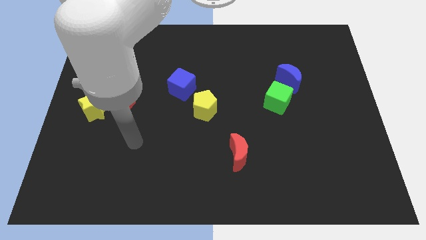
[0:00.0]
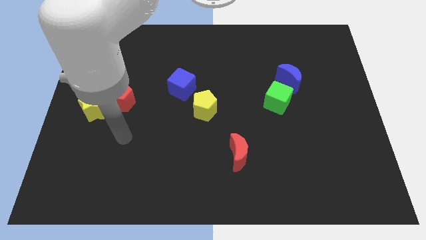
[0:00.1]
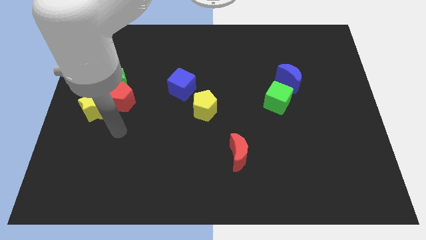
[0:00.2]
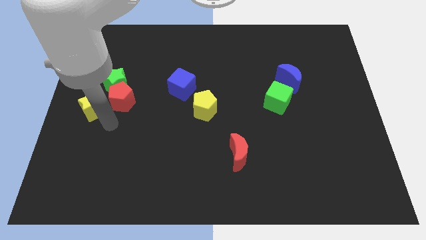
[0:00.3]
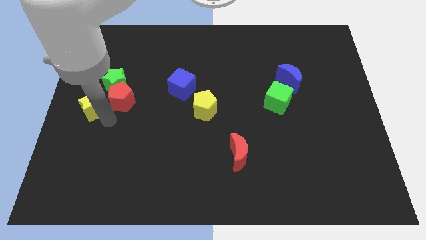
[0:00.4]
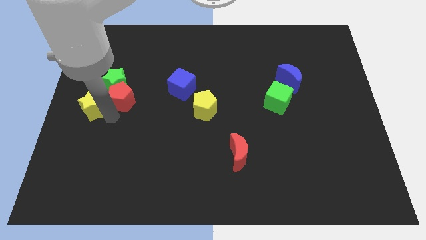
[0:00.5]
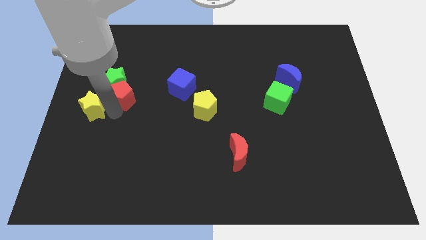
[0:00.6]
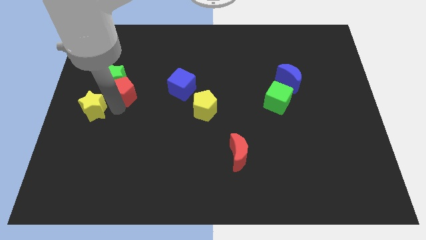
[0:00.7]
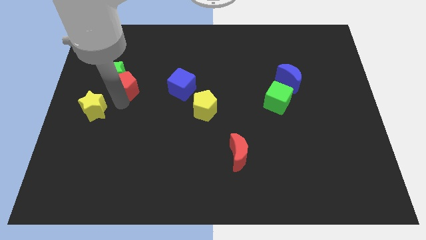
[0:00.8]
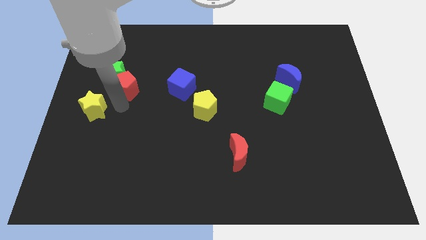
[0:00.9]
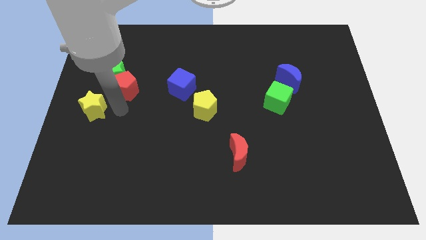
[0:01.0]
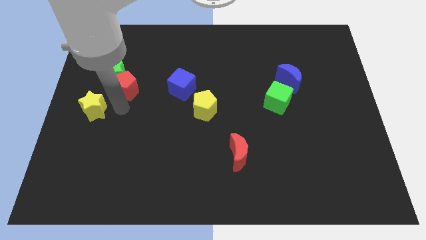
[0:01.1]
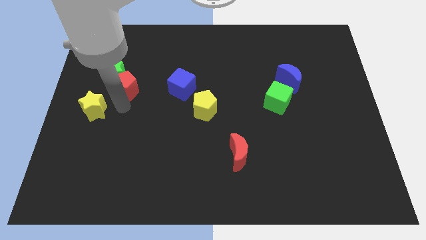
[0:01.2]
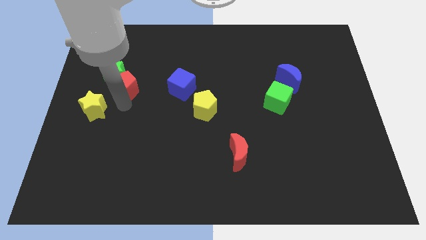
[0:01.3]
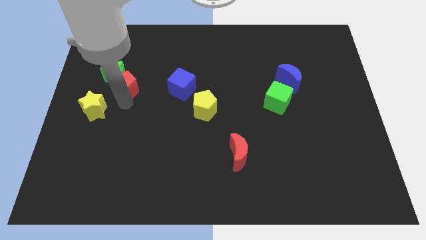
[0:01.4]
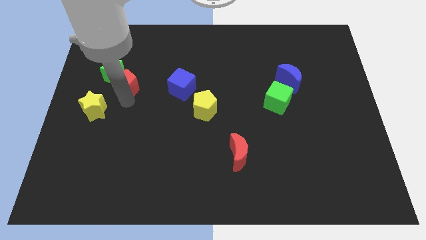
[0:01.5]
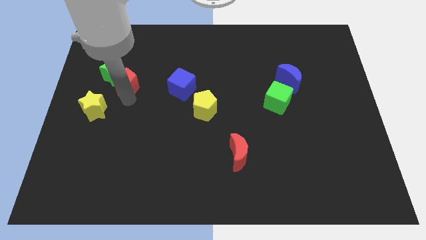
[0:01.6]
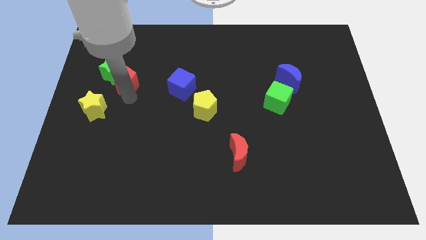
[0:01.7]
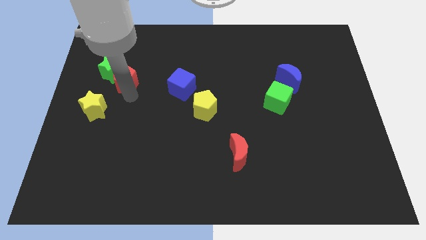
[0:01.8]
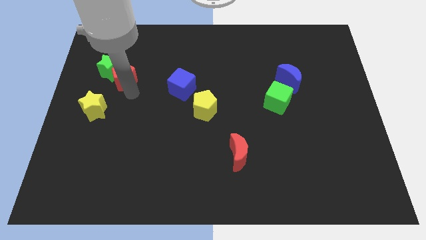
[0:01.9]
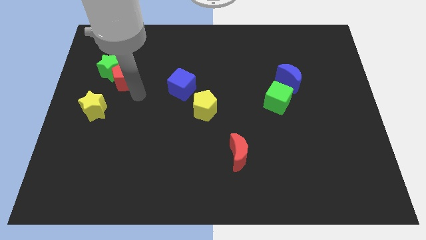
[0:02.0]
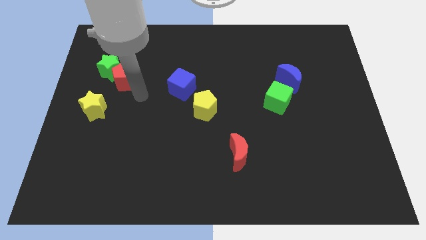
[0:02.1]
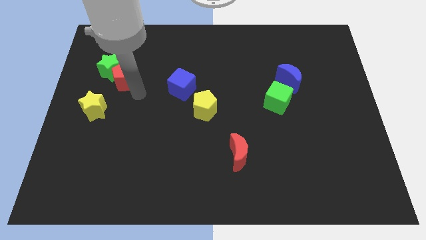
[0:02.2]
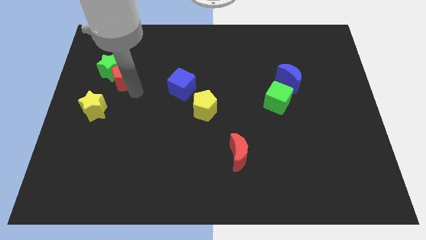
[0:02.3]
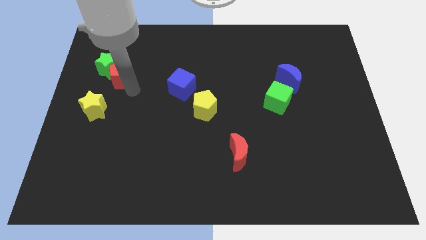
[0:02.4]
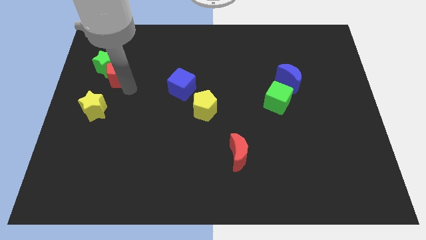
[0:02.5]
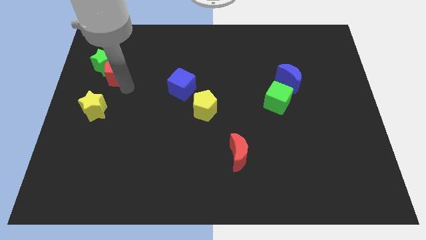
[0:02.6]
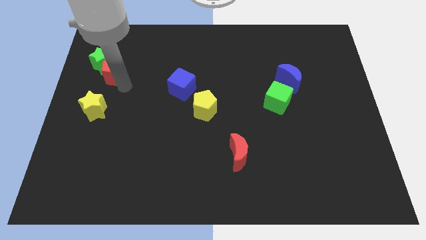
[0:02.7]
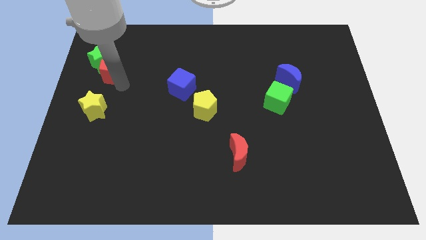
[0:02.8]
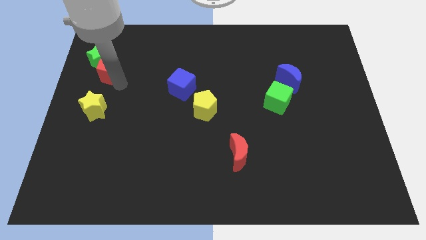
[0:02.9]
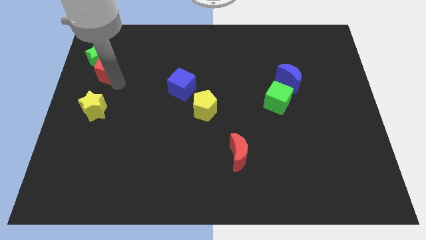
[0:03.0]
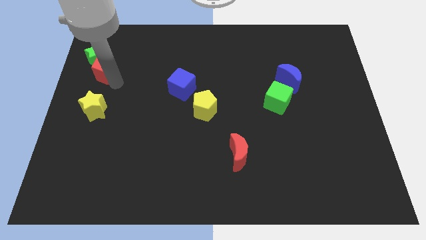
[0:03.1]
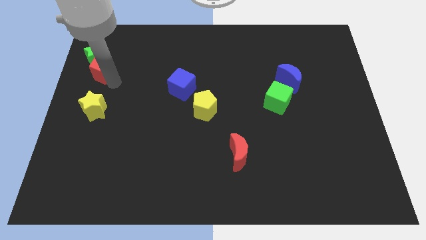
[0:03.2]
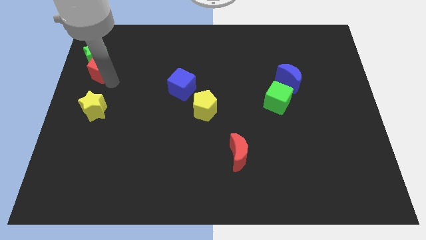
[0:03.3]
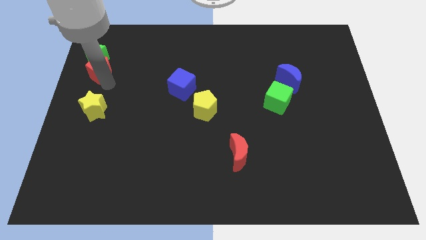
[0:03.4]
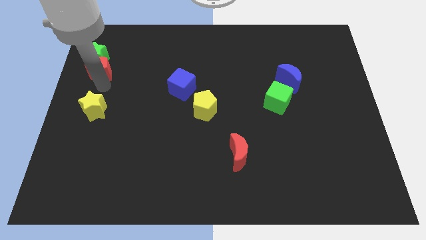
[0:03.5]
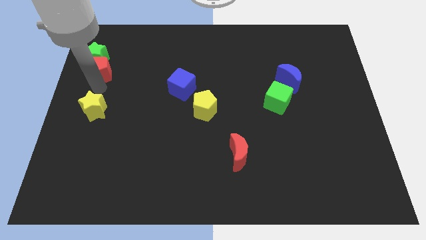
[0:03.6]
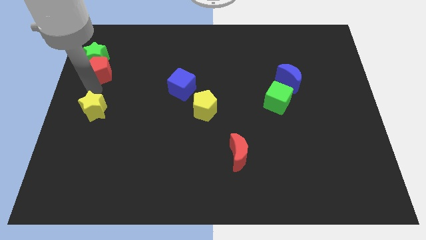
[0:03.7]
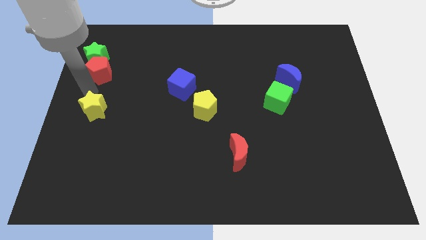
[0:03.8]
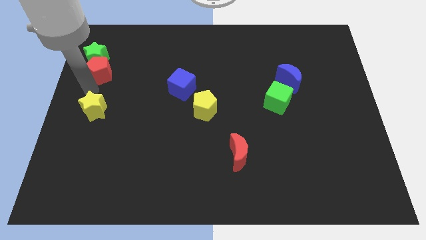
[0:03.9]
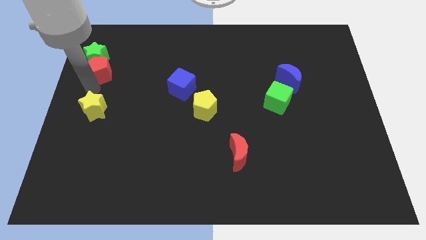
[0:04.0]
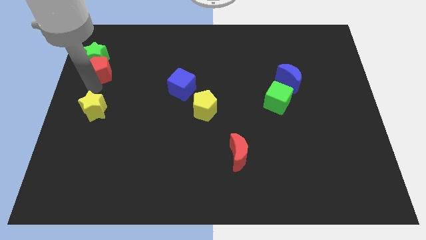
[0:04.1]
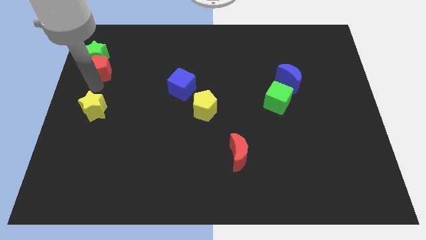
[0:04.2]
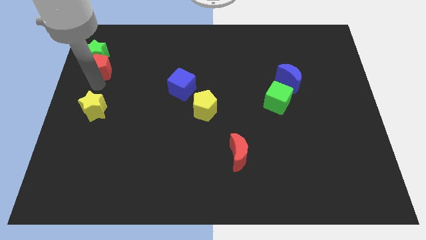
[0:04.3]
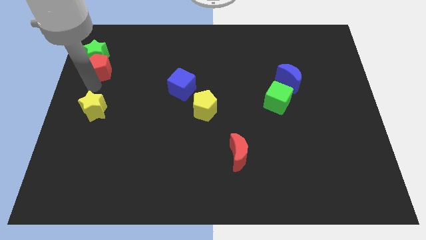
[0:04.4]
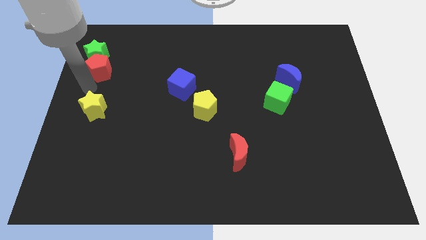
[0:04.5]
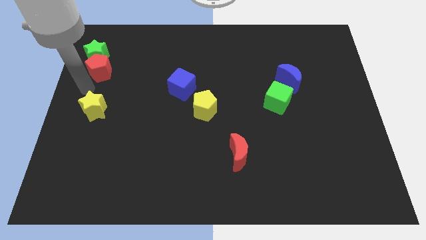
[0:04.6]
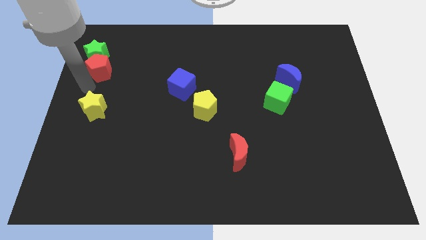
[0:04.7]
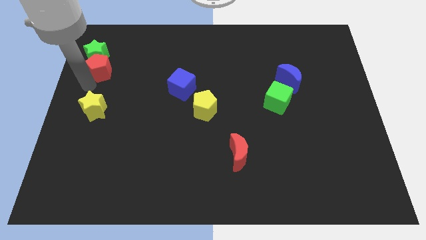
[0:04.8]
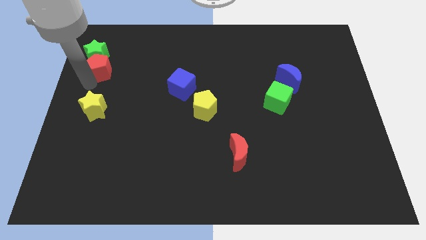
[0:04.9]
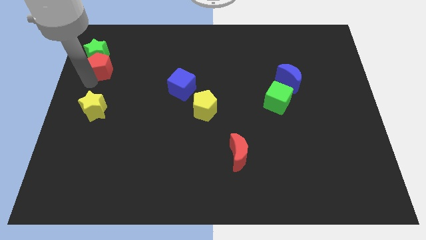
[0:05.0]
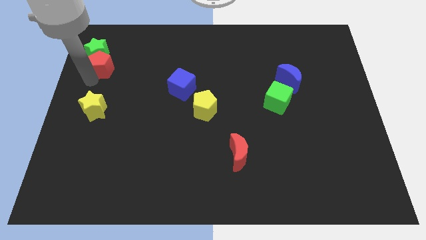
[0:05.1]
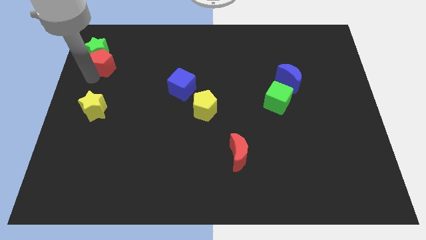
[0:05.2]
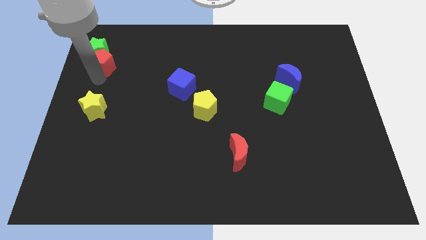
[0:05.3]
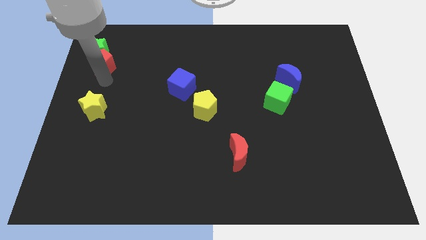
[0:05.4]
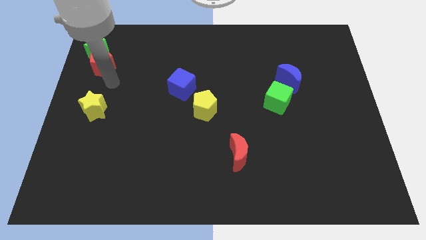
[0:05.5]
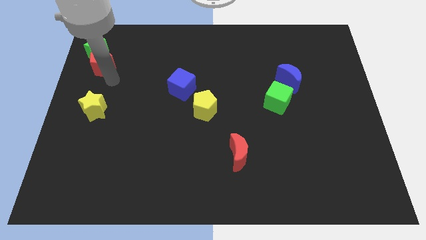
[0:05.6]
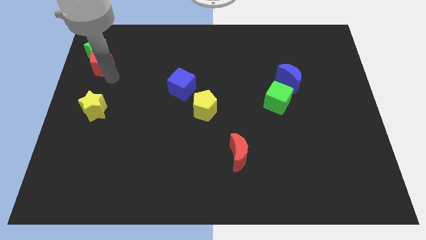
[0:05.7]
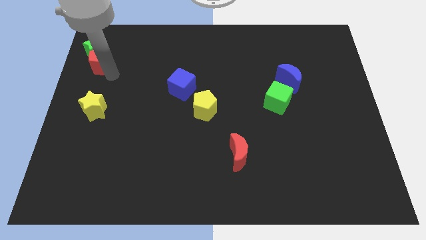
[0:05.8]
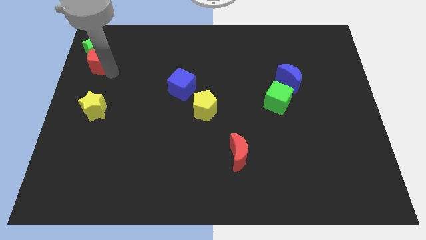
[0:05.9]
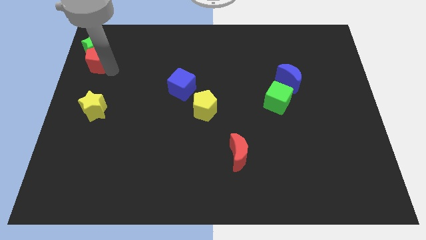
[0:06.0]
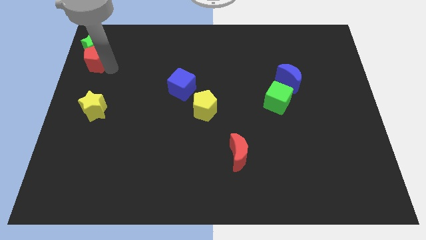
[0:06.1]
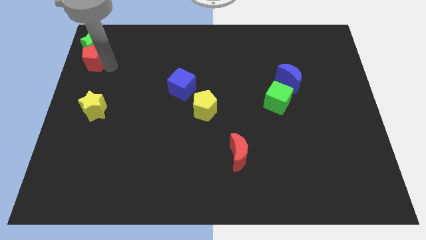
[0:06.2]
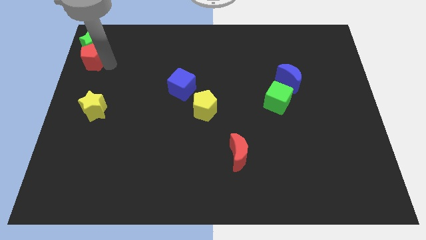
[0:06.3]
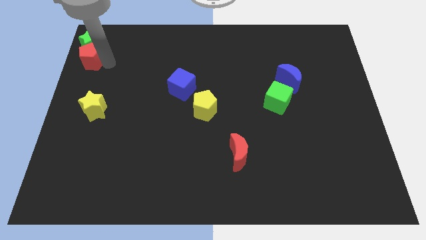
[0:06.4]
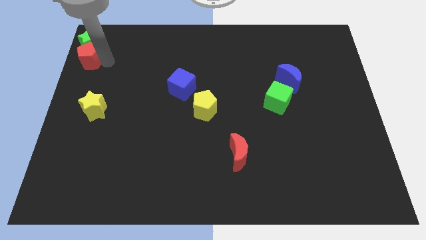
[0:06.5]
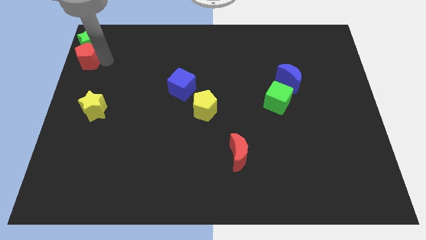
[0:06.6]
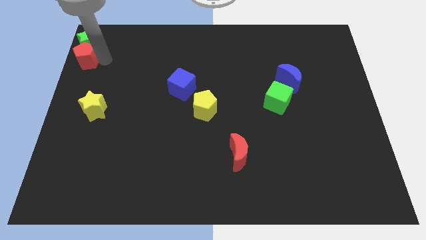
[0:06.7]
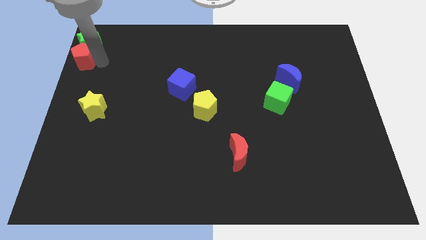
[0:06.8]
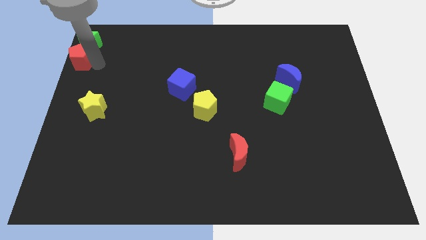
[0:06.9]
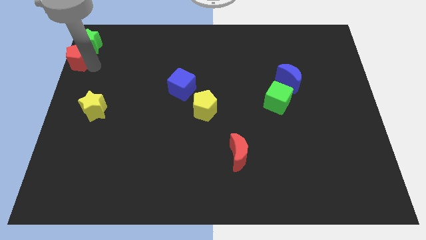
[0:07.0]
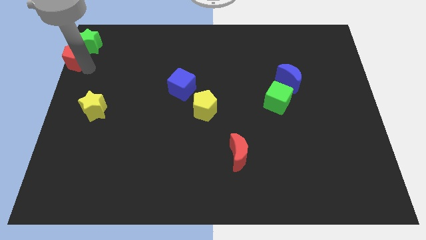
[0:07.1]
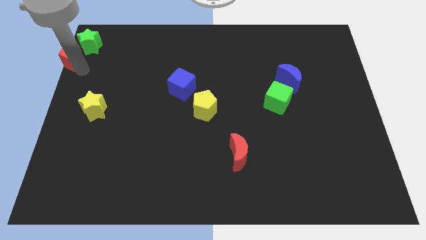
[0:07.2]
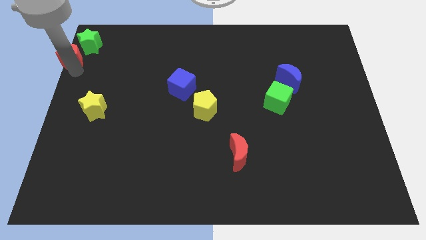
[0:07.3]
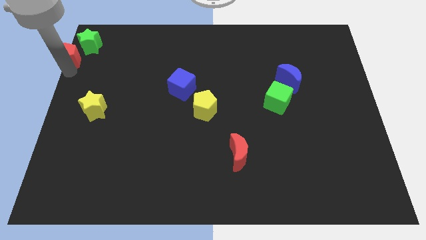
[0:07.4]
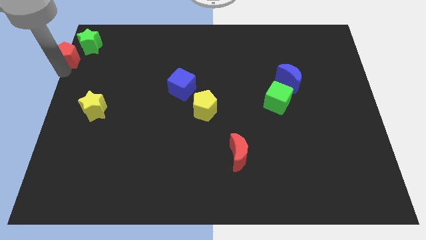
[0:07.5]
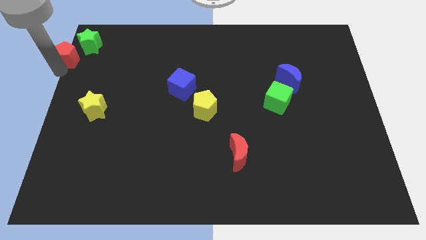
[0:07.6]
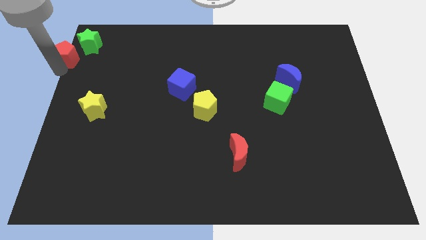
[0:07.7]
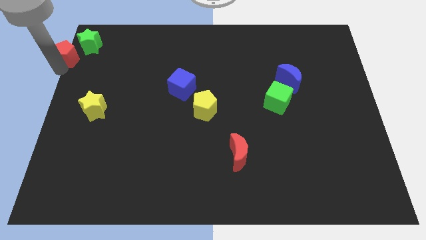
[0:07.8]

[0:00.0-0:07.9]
slide the red pentagon to the top left corner
